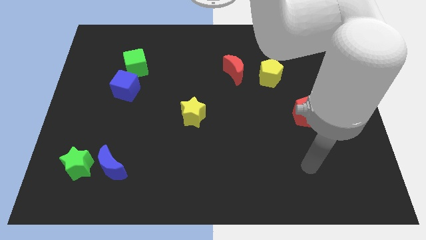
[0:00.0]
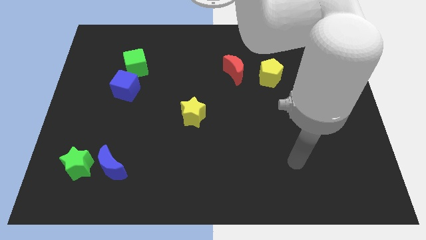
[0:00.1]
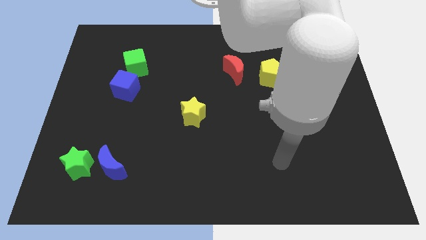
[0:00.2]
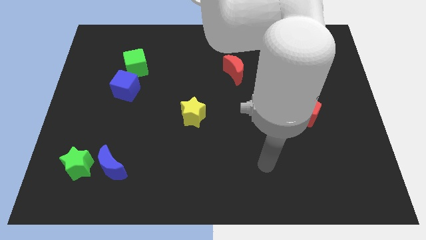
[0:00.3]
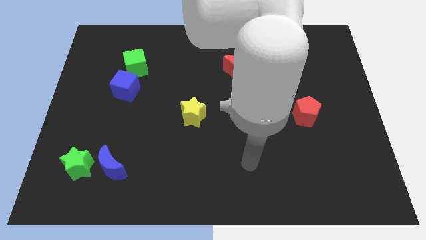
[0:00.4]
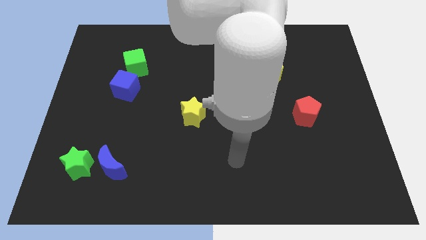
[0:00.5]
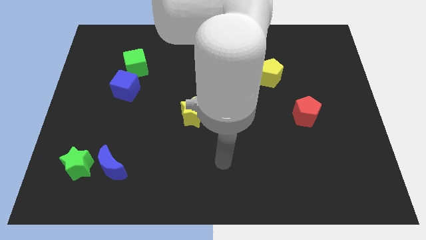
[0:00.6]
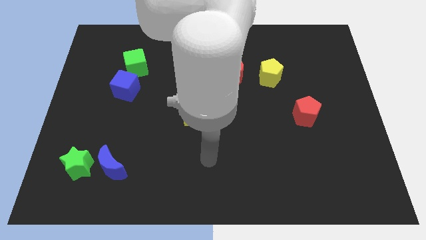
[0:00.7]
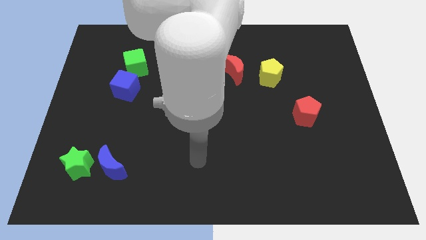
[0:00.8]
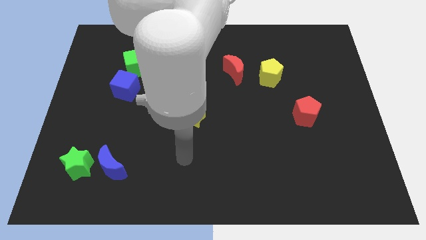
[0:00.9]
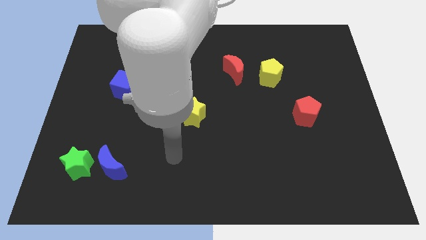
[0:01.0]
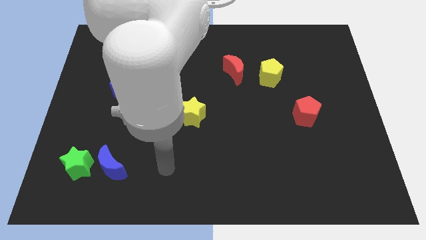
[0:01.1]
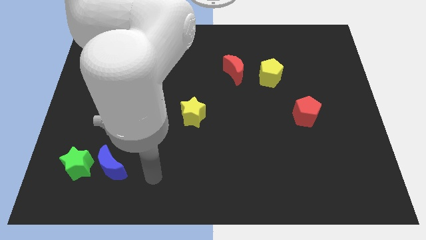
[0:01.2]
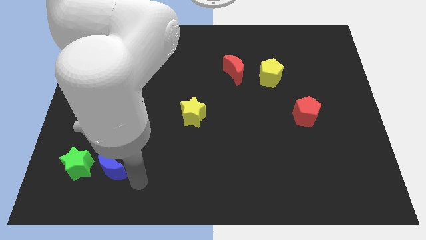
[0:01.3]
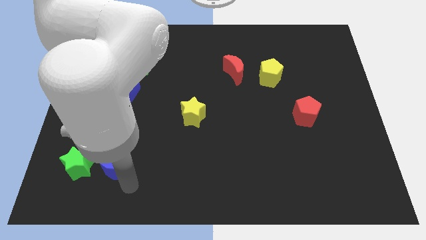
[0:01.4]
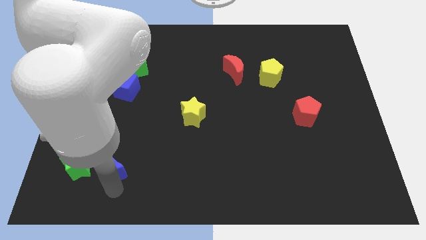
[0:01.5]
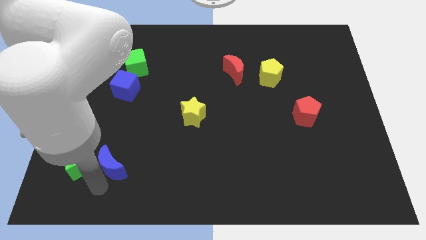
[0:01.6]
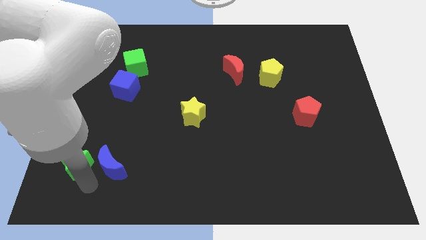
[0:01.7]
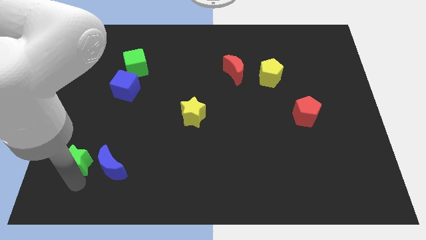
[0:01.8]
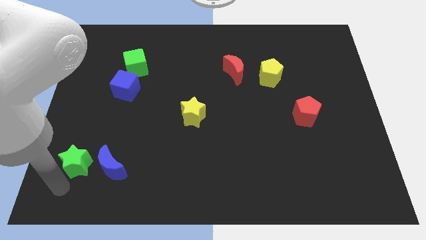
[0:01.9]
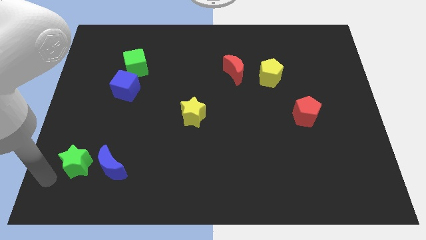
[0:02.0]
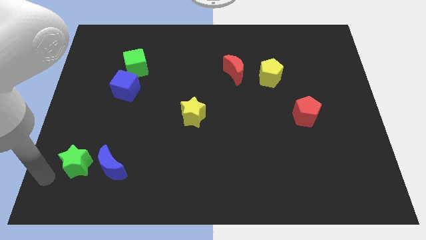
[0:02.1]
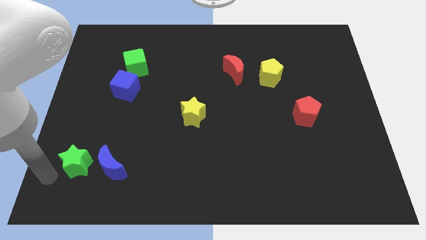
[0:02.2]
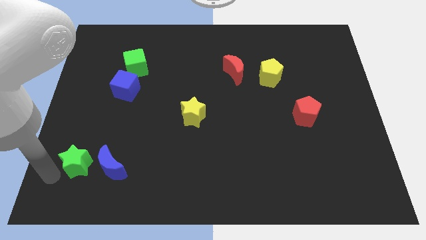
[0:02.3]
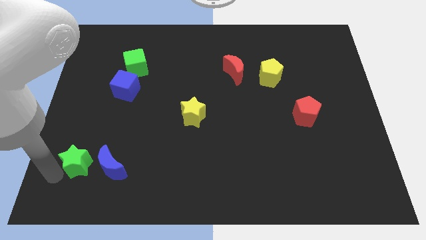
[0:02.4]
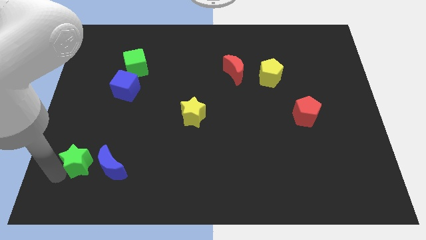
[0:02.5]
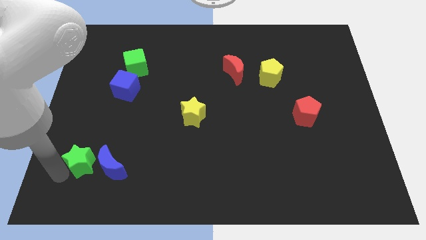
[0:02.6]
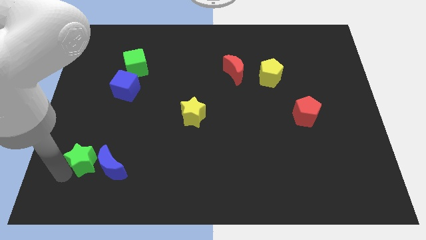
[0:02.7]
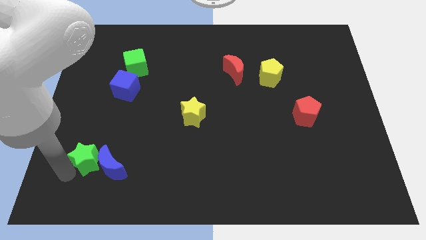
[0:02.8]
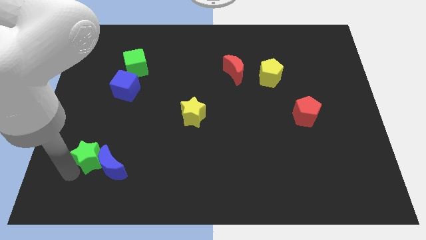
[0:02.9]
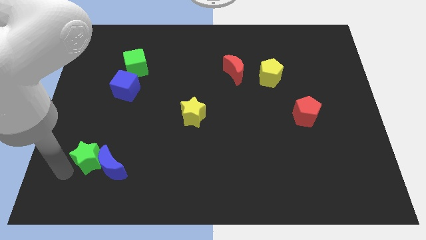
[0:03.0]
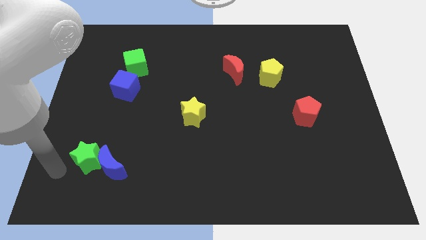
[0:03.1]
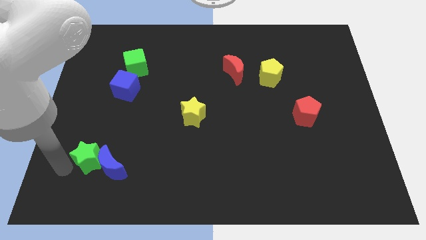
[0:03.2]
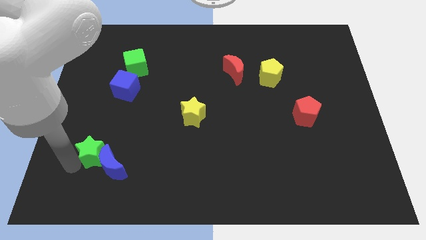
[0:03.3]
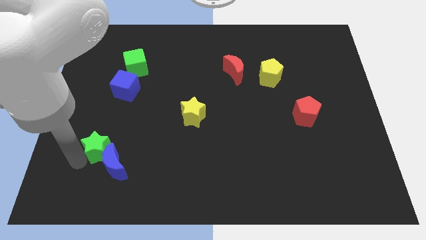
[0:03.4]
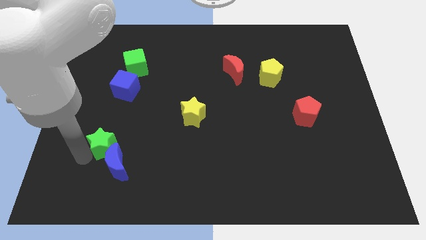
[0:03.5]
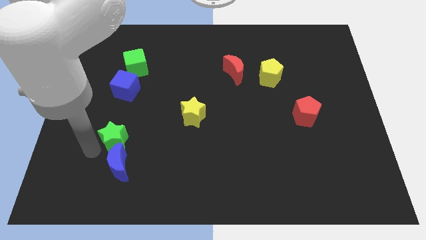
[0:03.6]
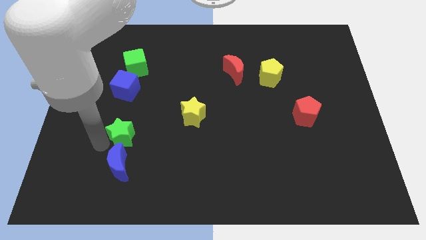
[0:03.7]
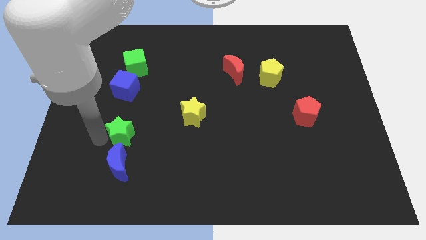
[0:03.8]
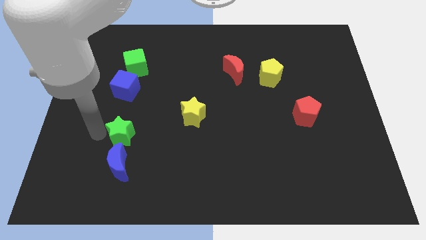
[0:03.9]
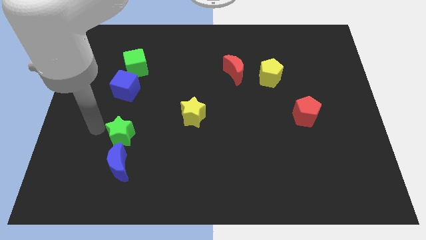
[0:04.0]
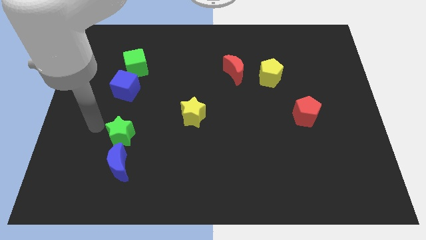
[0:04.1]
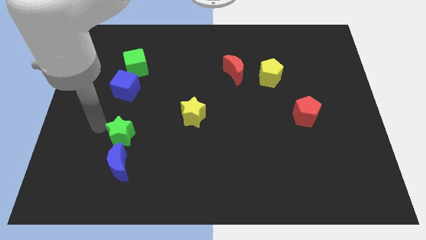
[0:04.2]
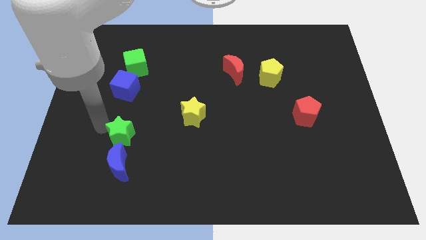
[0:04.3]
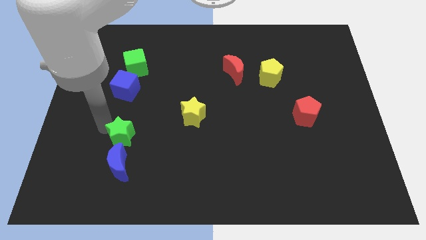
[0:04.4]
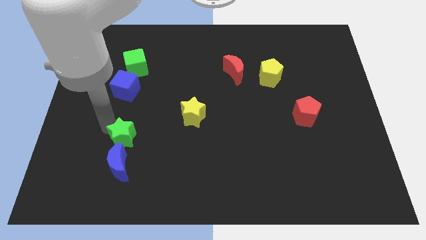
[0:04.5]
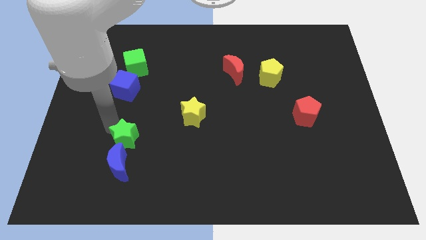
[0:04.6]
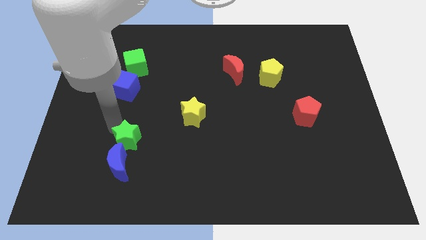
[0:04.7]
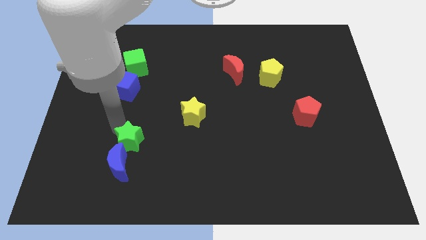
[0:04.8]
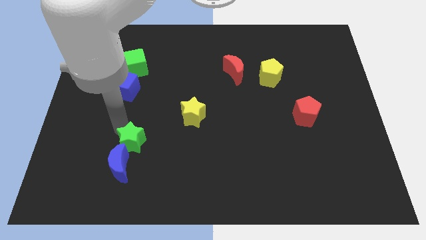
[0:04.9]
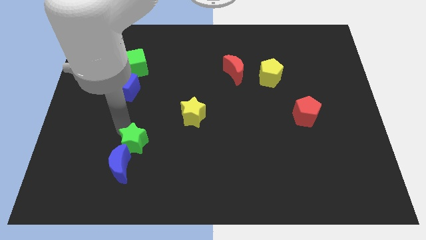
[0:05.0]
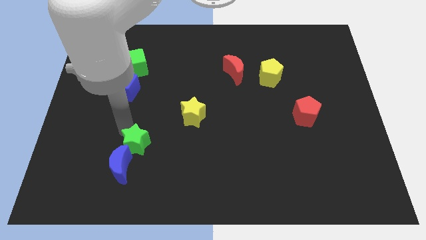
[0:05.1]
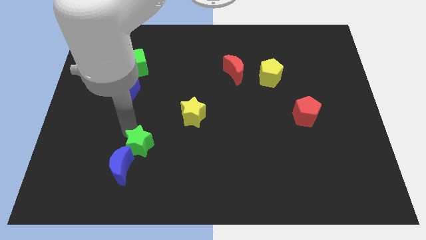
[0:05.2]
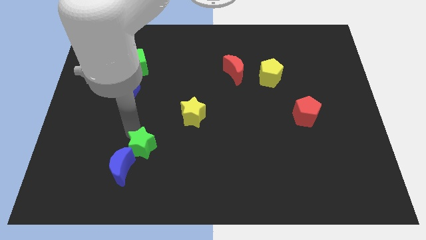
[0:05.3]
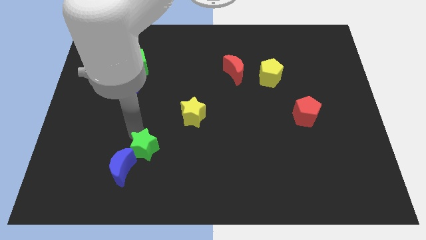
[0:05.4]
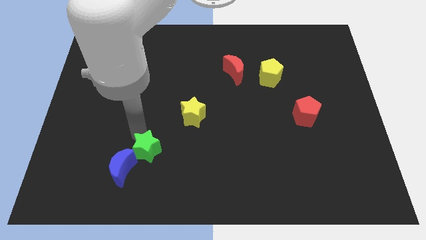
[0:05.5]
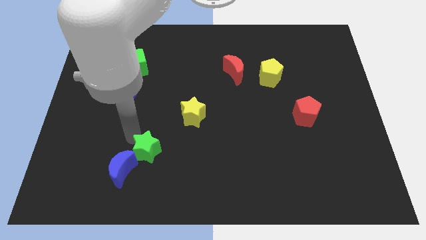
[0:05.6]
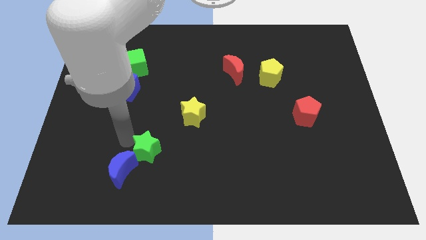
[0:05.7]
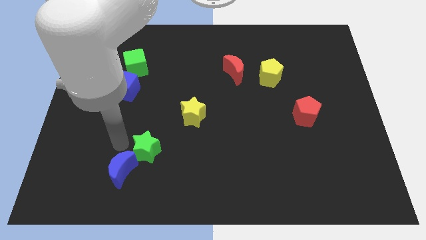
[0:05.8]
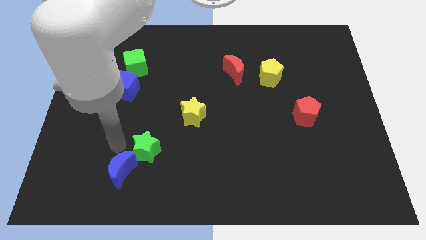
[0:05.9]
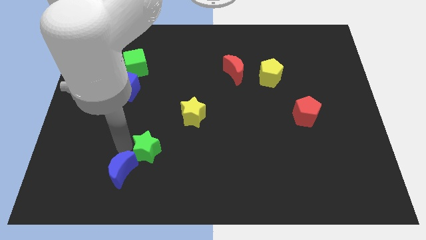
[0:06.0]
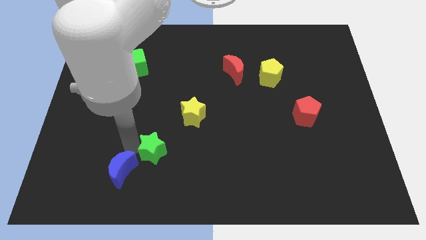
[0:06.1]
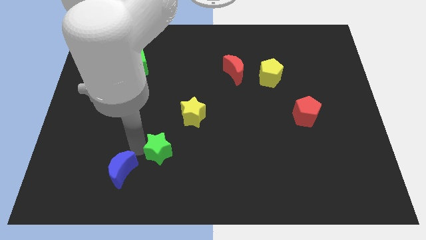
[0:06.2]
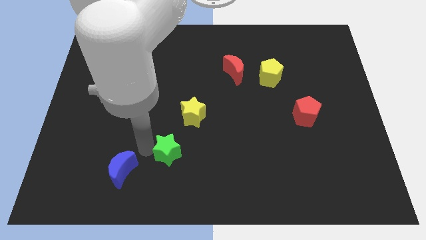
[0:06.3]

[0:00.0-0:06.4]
slide the green star to the bottom side of the yellow star

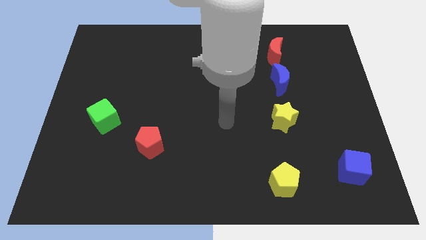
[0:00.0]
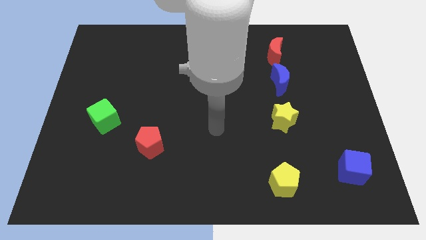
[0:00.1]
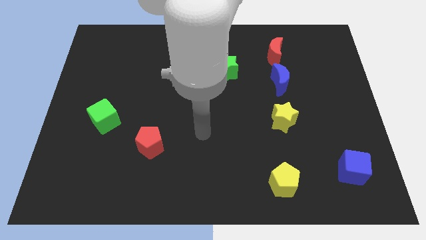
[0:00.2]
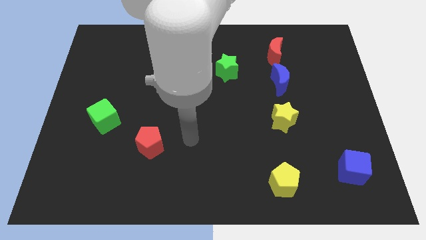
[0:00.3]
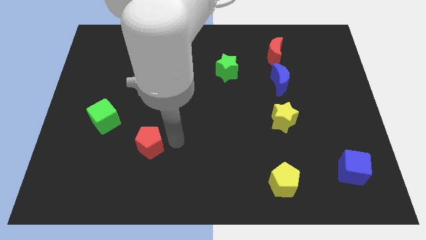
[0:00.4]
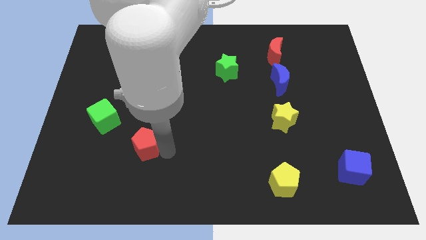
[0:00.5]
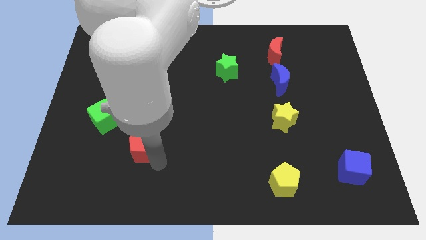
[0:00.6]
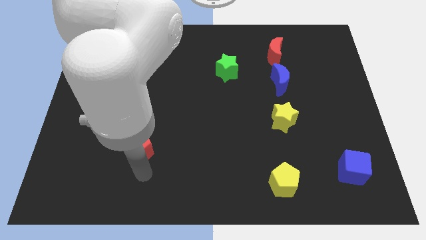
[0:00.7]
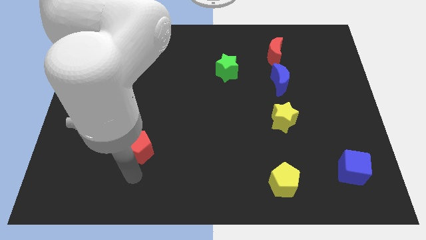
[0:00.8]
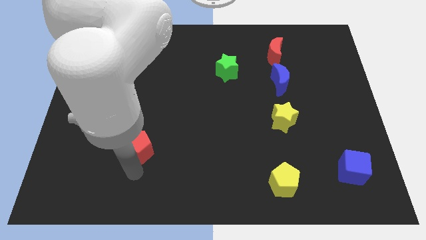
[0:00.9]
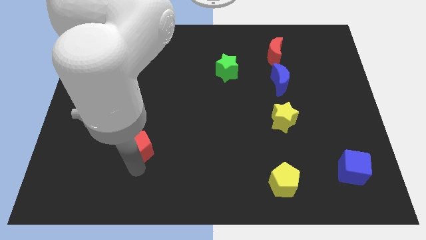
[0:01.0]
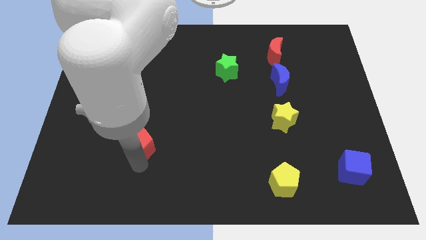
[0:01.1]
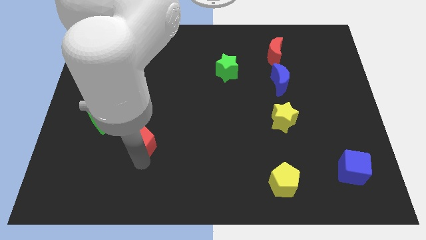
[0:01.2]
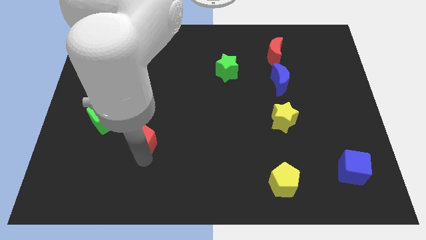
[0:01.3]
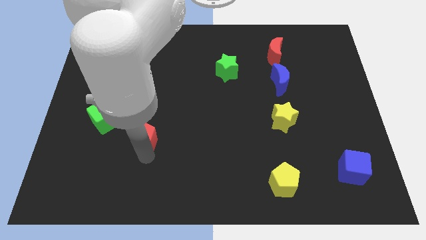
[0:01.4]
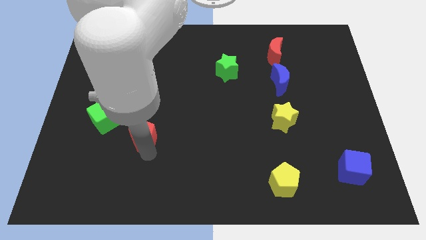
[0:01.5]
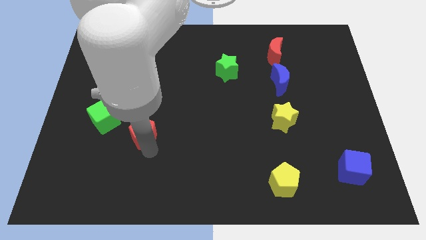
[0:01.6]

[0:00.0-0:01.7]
move the red pentagon right of the green cube
